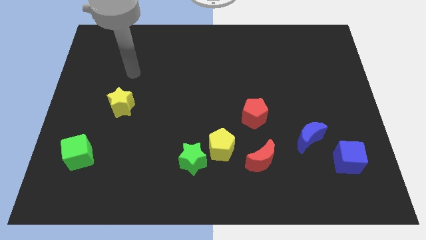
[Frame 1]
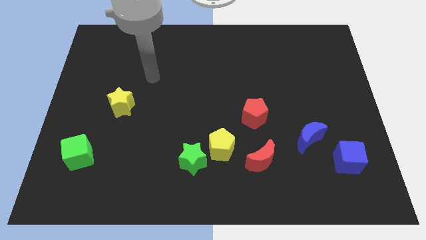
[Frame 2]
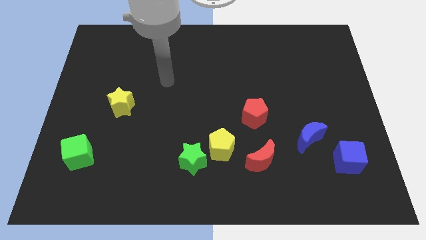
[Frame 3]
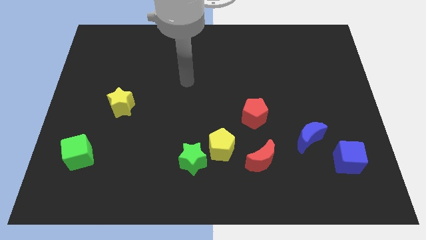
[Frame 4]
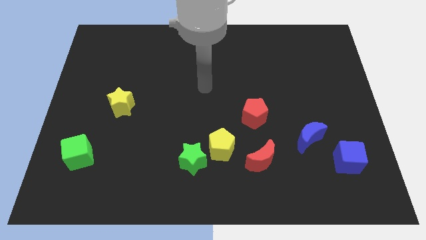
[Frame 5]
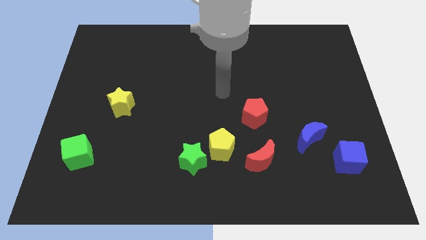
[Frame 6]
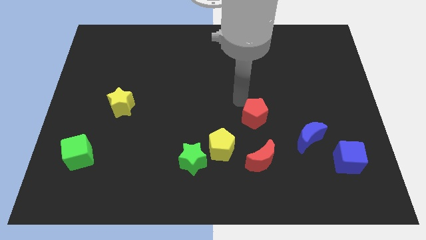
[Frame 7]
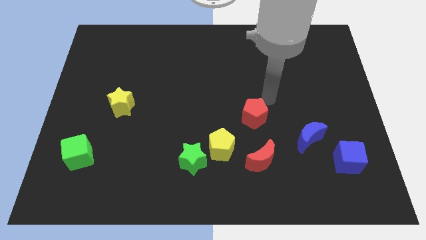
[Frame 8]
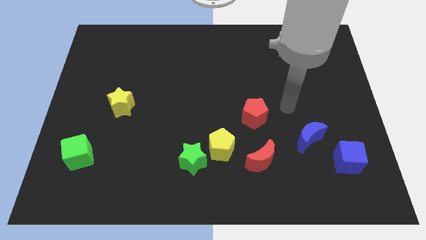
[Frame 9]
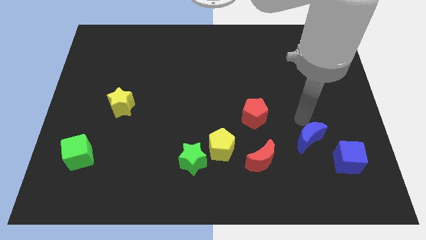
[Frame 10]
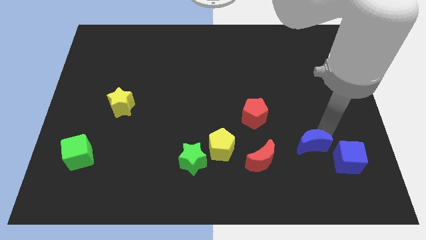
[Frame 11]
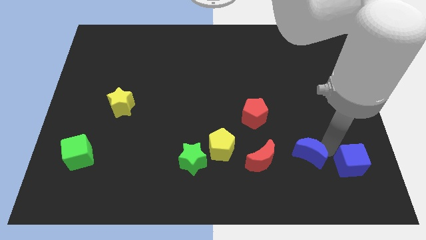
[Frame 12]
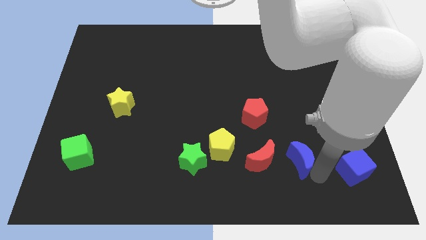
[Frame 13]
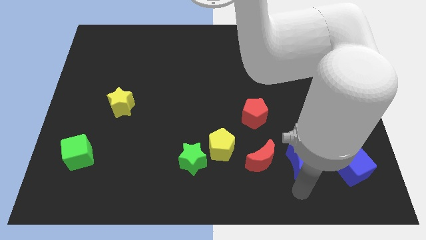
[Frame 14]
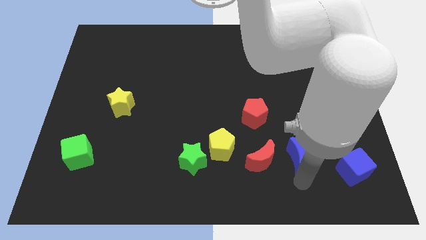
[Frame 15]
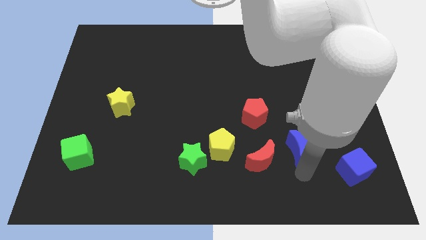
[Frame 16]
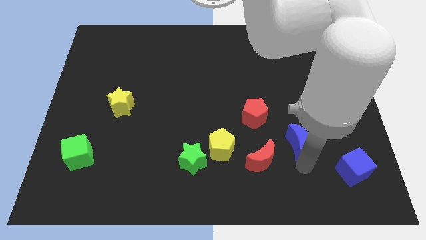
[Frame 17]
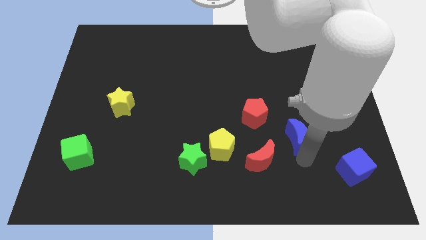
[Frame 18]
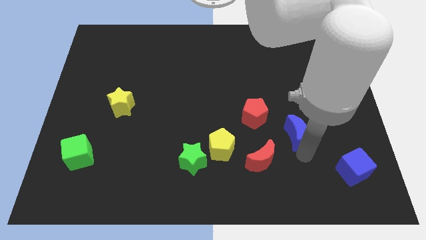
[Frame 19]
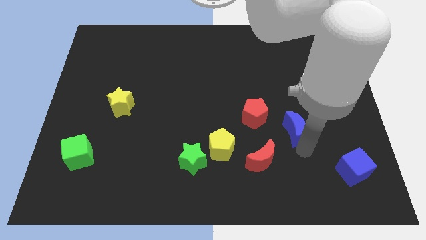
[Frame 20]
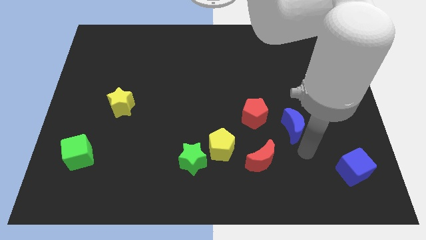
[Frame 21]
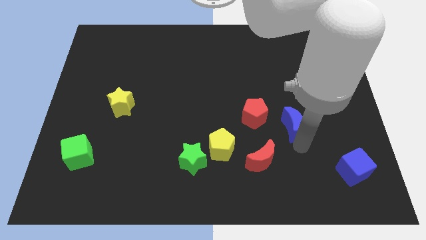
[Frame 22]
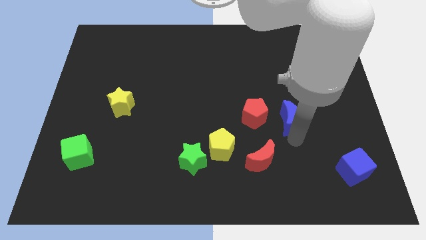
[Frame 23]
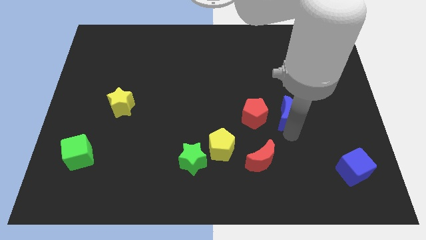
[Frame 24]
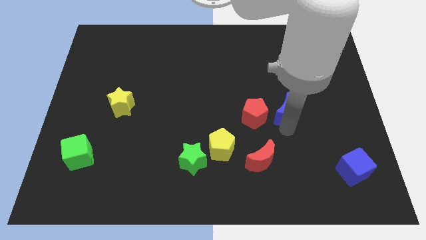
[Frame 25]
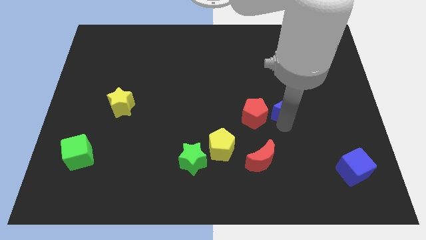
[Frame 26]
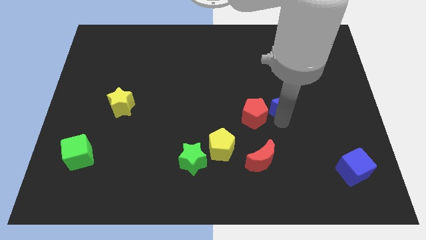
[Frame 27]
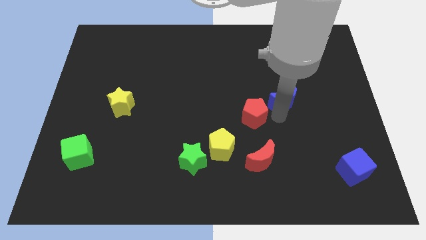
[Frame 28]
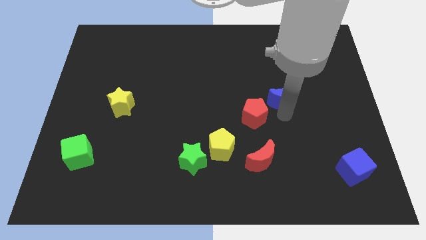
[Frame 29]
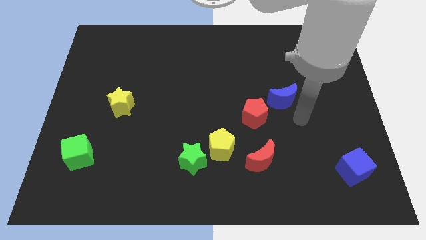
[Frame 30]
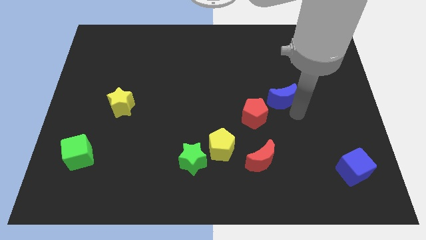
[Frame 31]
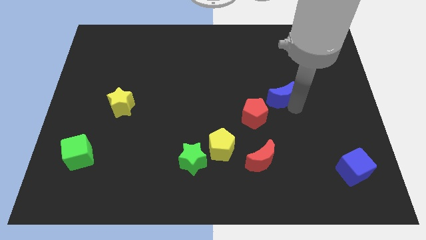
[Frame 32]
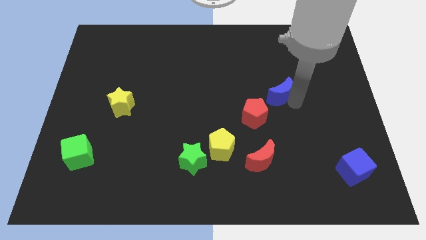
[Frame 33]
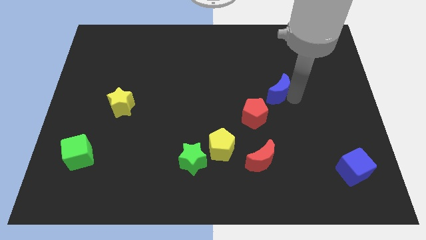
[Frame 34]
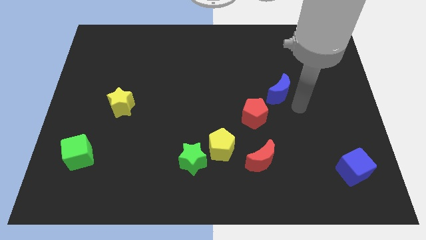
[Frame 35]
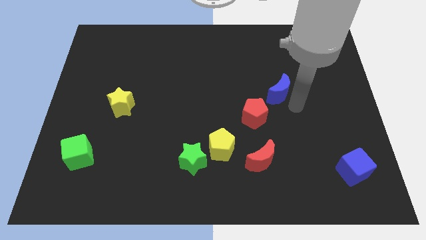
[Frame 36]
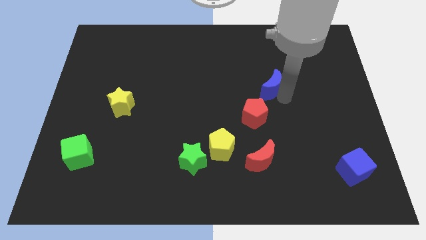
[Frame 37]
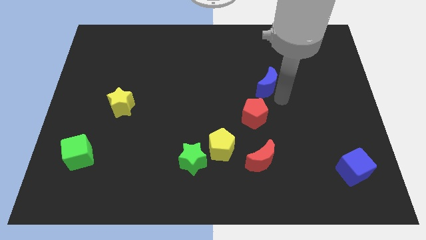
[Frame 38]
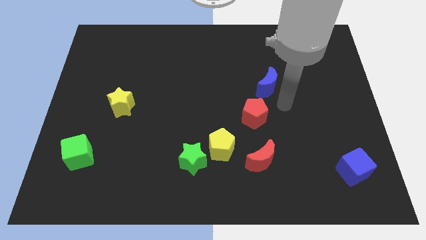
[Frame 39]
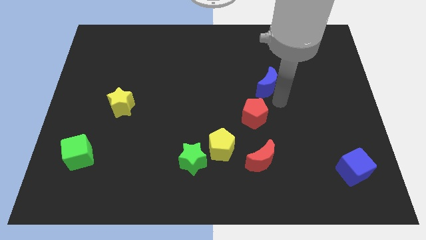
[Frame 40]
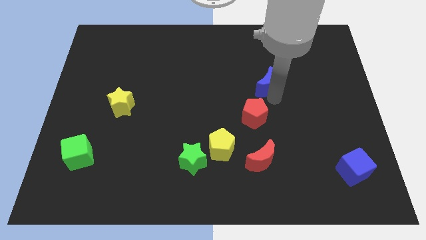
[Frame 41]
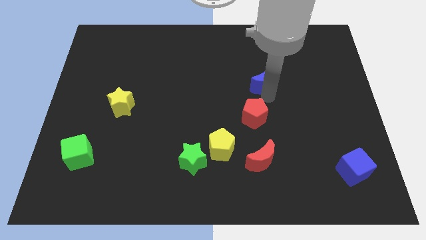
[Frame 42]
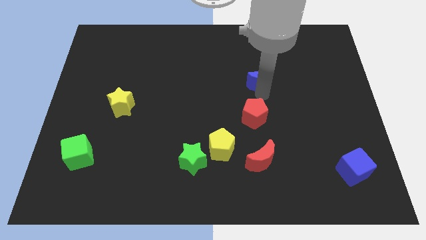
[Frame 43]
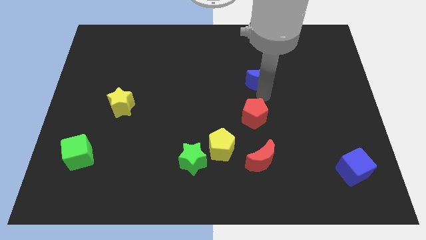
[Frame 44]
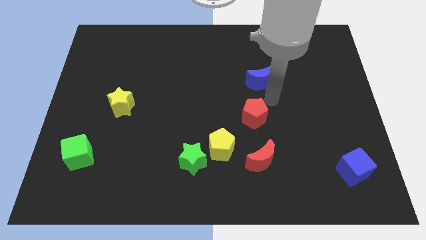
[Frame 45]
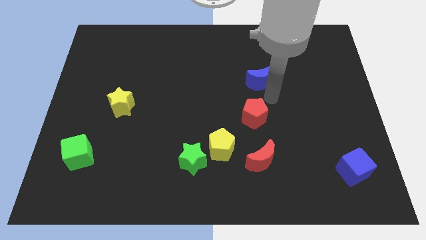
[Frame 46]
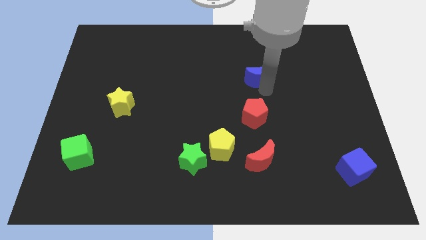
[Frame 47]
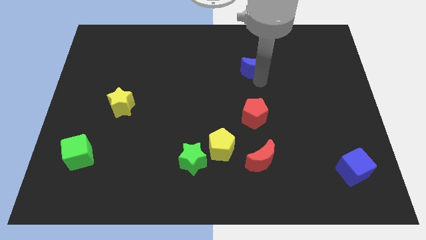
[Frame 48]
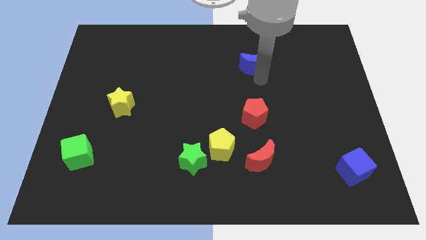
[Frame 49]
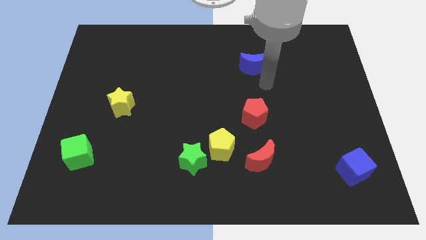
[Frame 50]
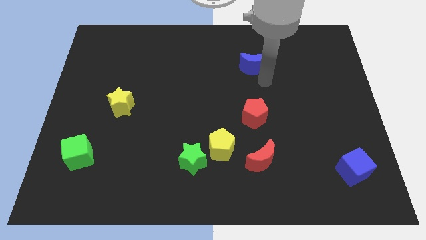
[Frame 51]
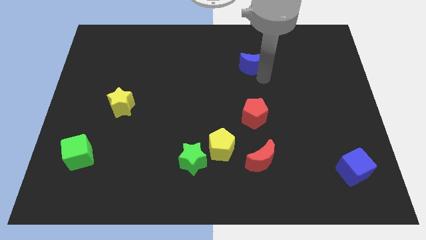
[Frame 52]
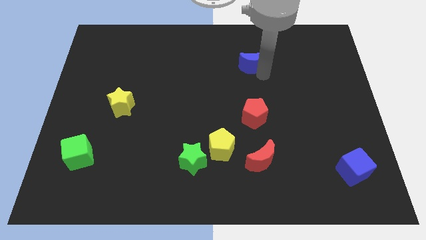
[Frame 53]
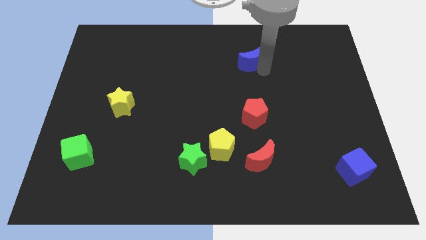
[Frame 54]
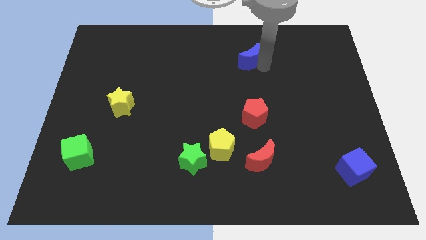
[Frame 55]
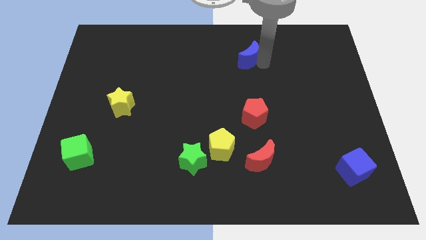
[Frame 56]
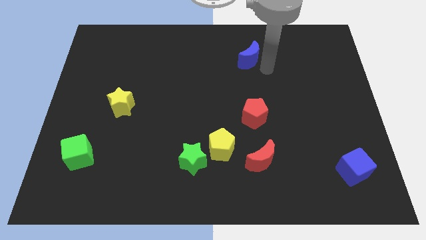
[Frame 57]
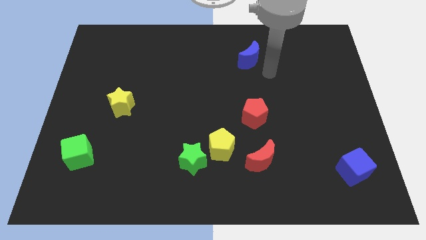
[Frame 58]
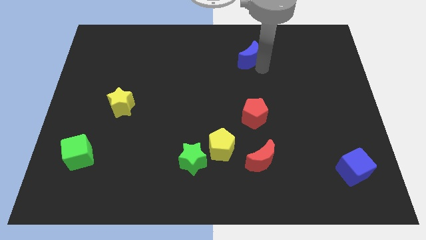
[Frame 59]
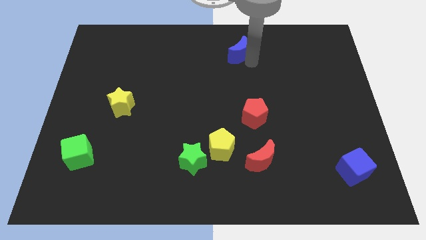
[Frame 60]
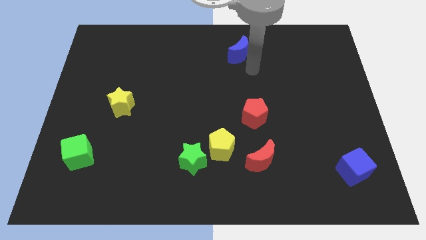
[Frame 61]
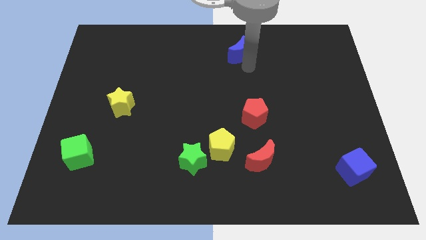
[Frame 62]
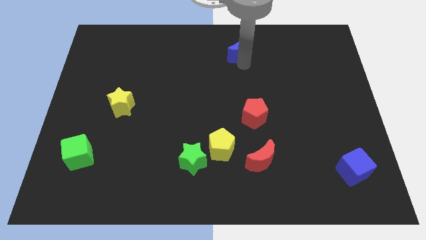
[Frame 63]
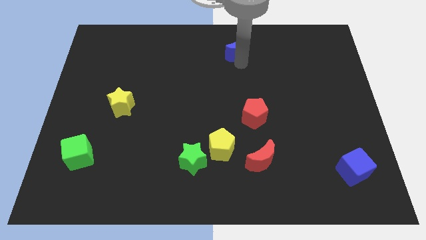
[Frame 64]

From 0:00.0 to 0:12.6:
put the blue moon to the top side
